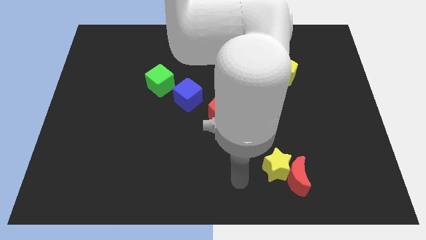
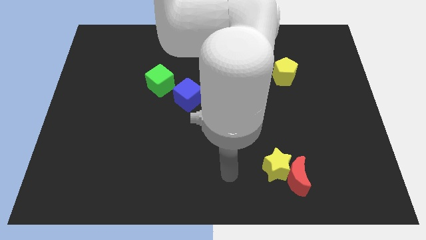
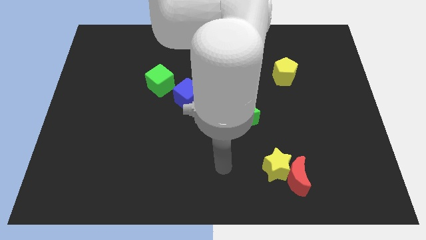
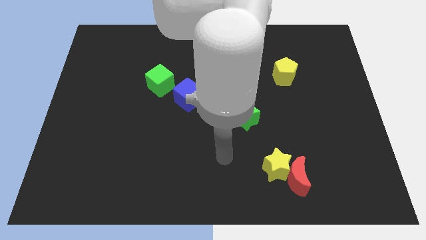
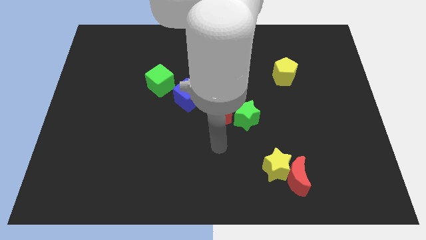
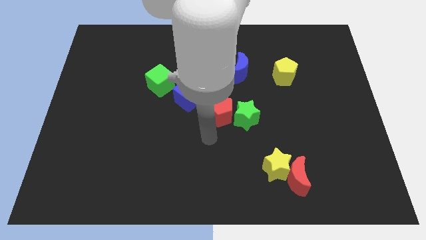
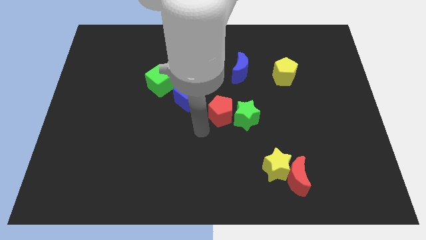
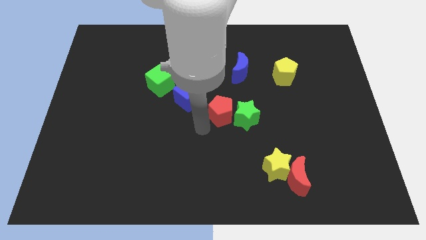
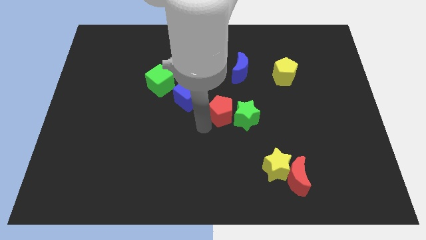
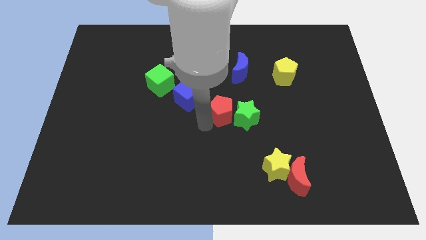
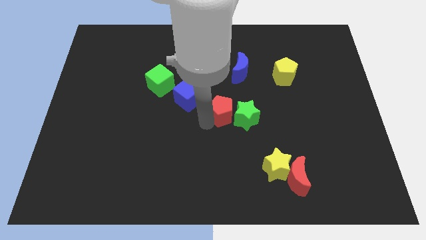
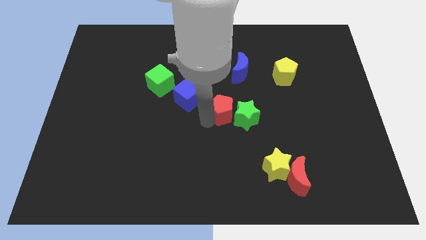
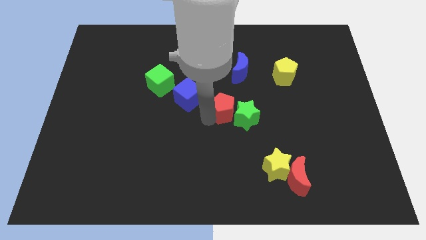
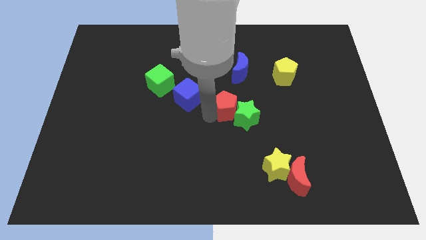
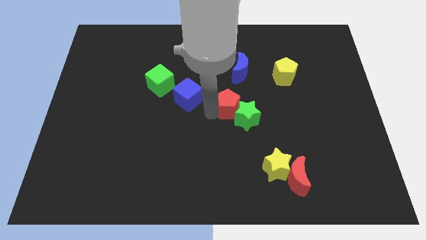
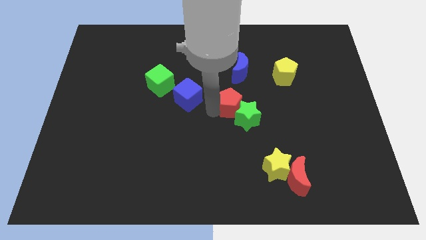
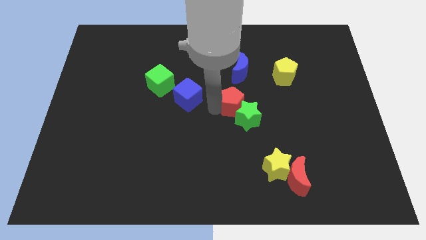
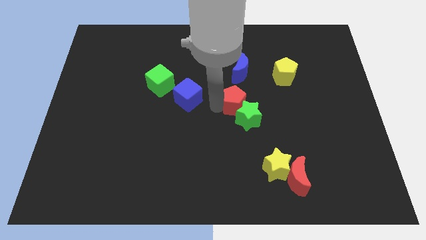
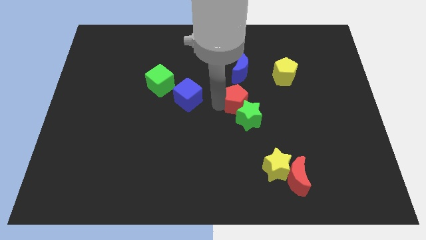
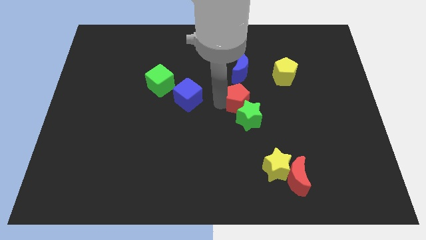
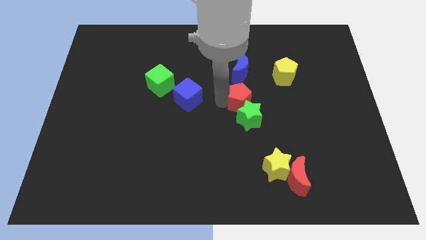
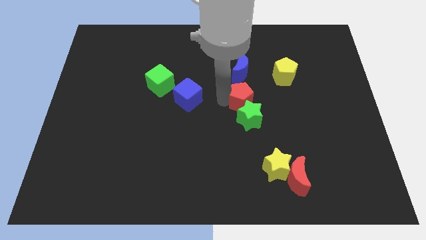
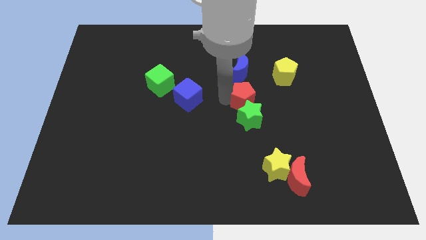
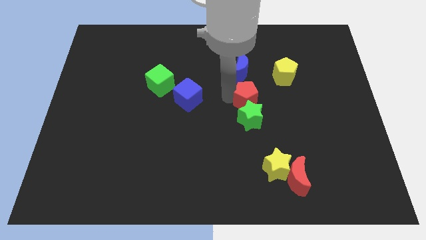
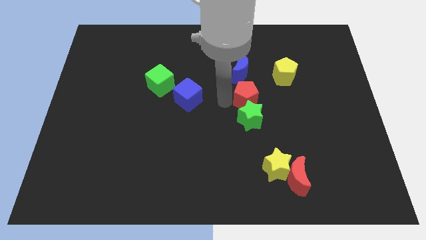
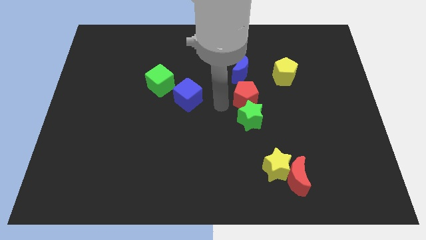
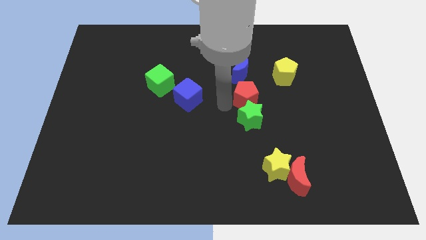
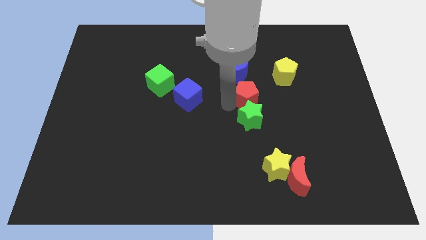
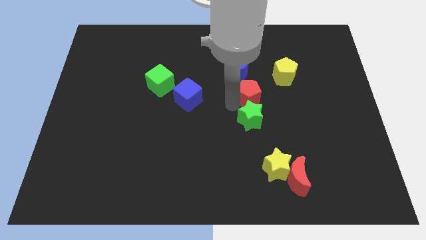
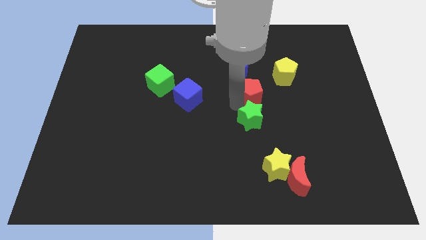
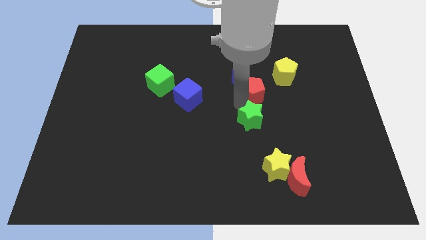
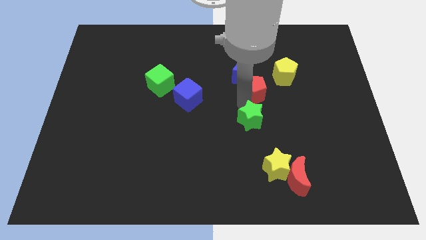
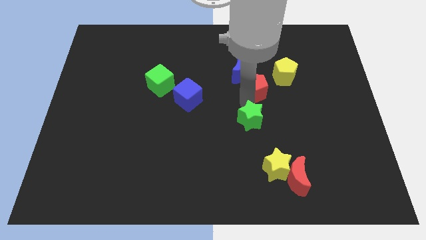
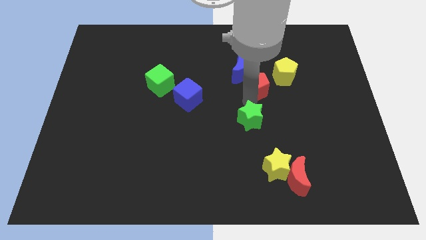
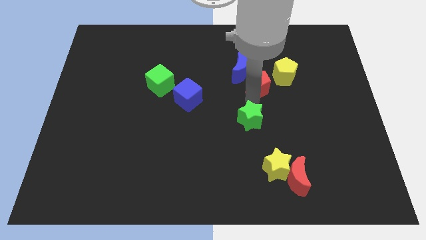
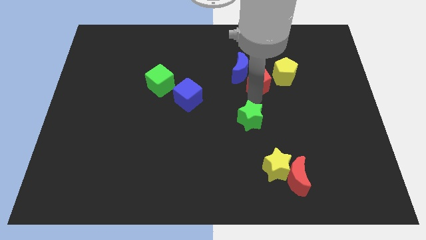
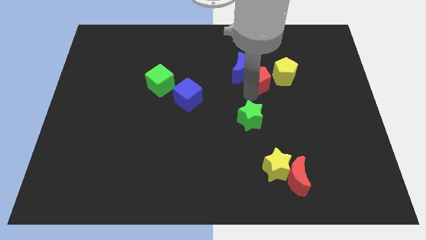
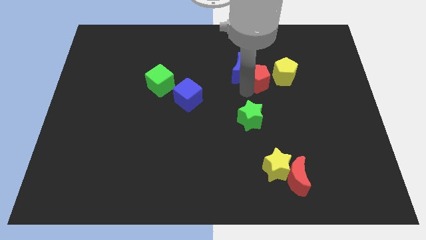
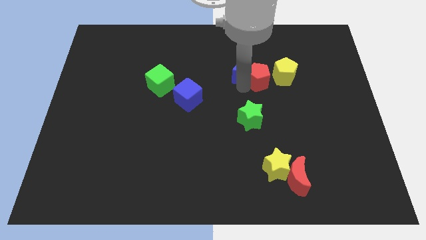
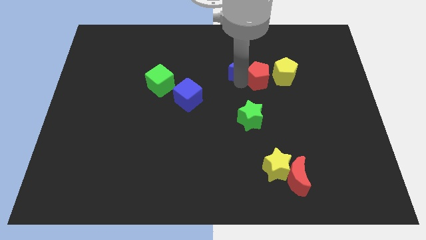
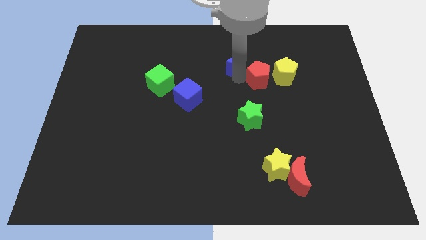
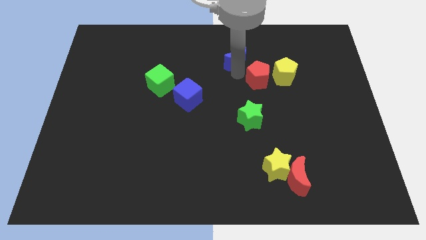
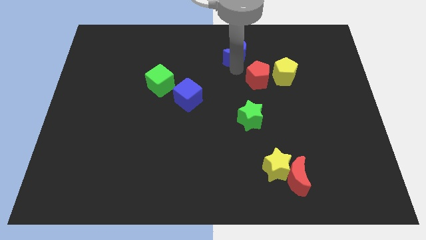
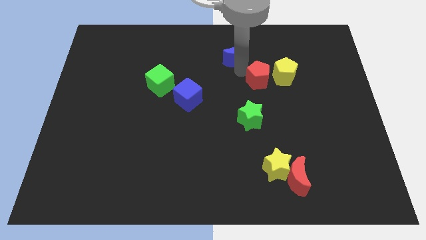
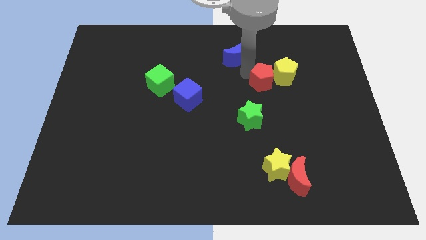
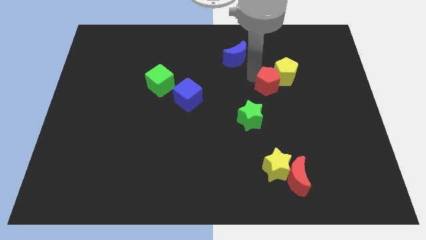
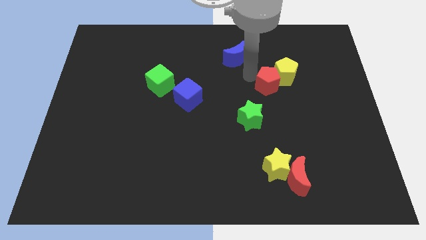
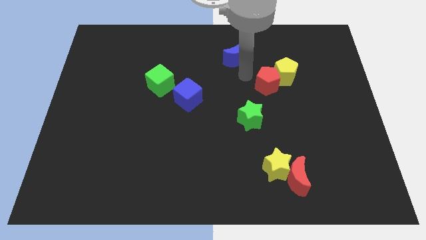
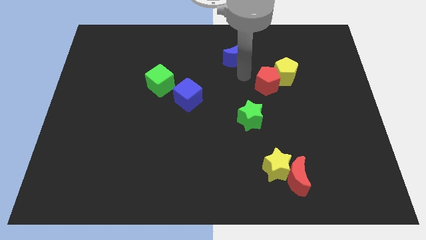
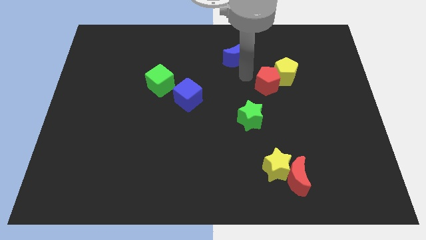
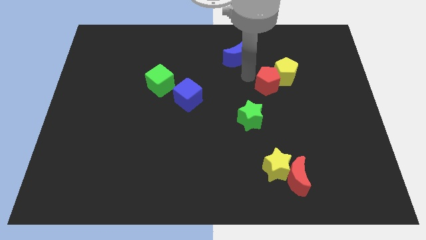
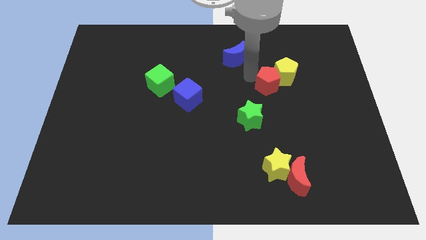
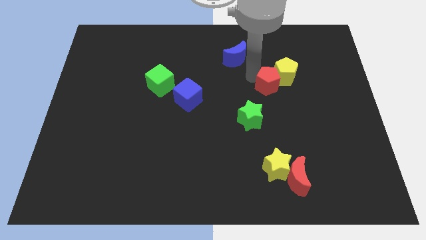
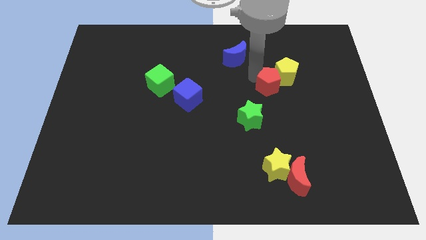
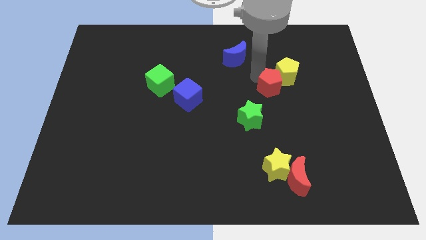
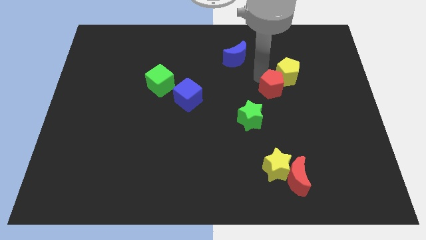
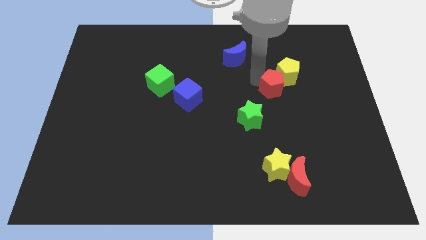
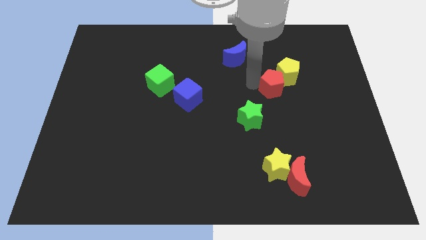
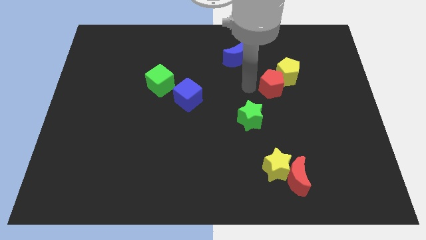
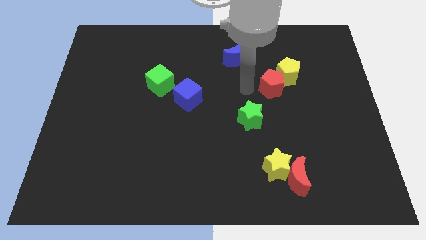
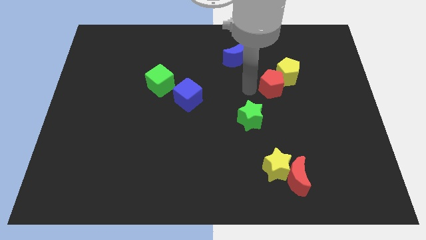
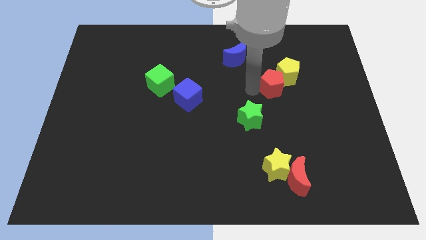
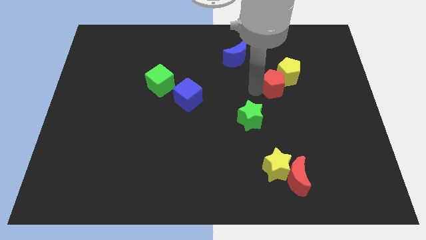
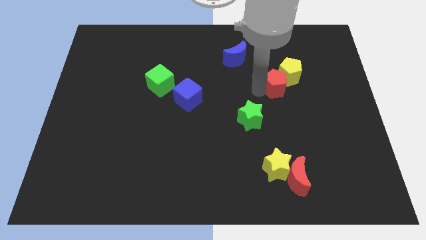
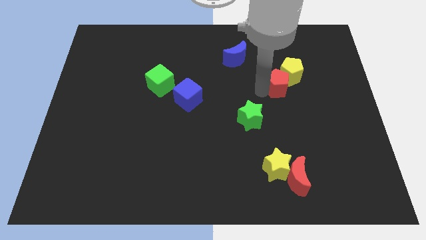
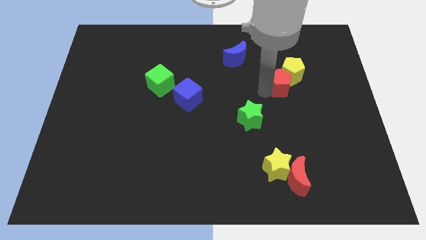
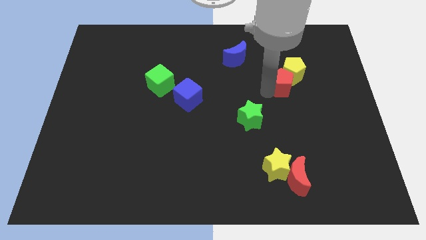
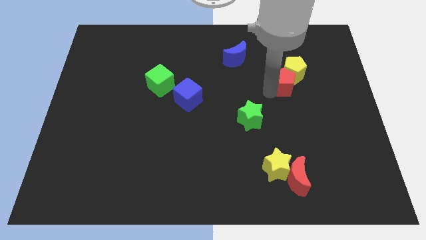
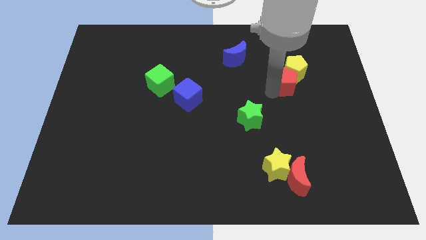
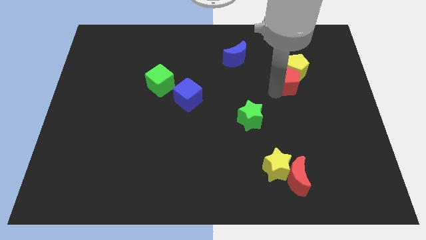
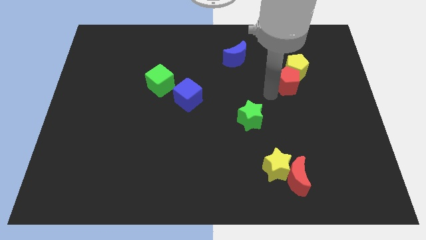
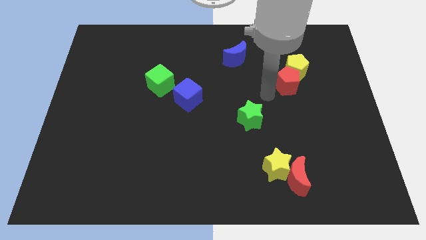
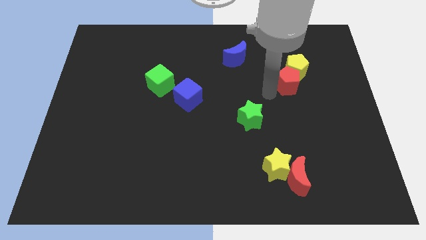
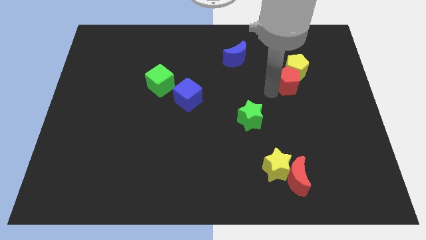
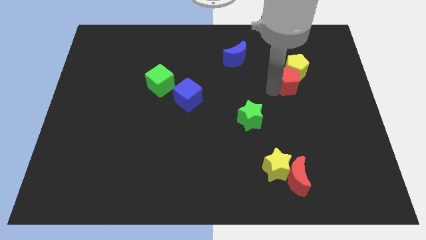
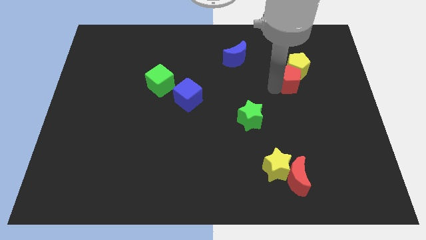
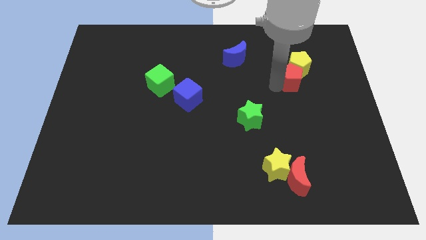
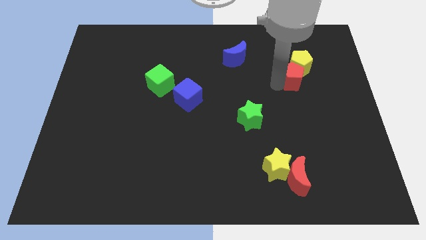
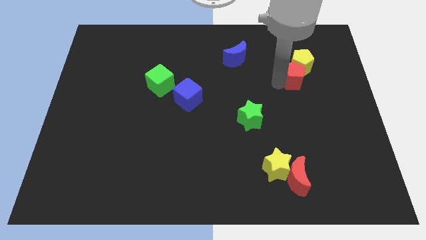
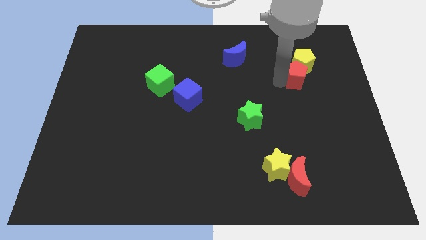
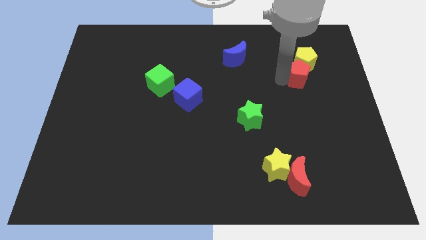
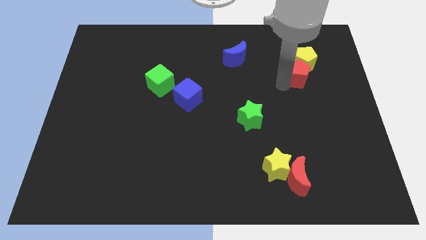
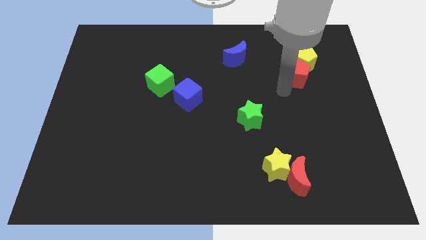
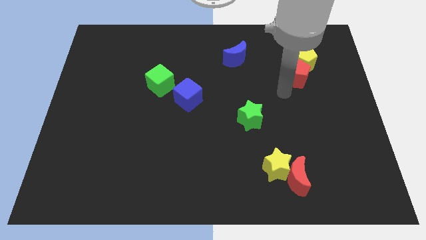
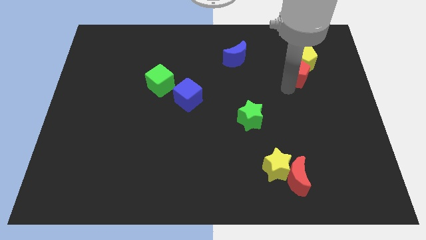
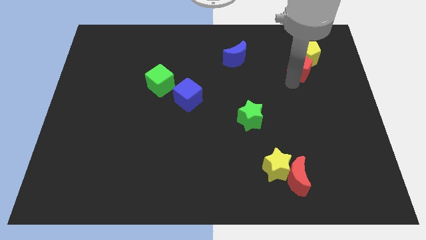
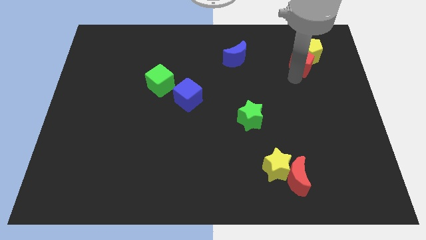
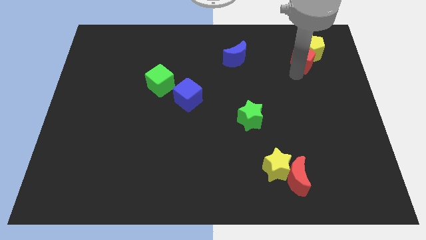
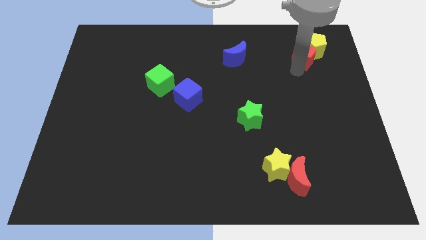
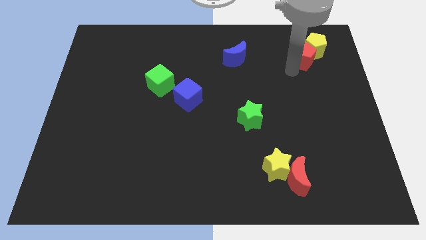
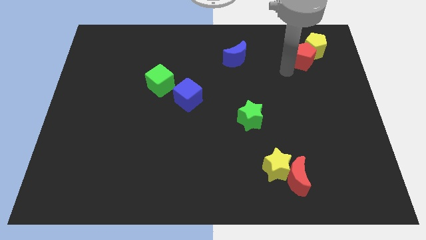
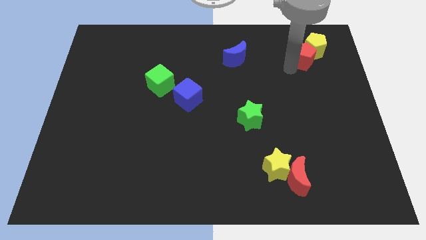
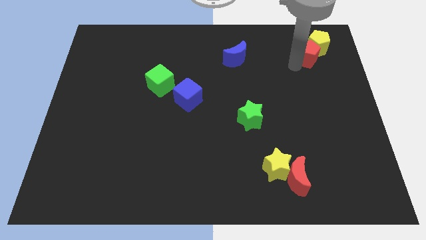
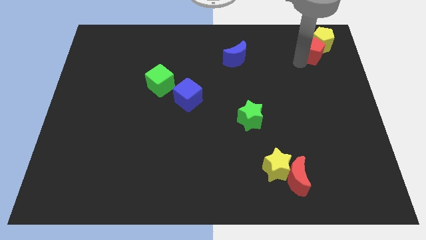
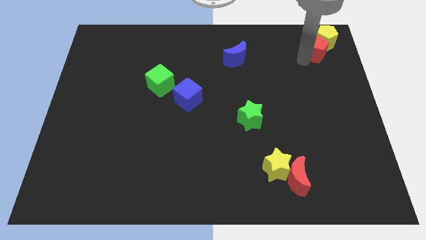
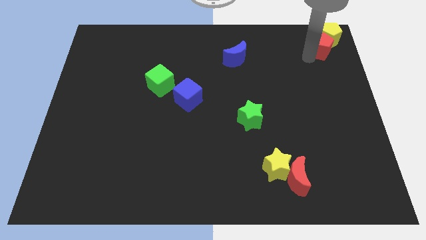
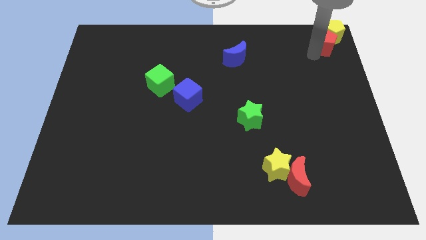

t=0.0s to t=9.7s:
put the red pentagon to the top right
